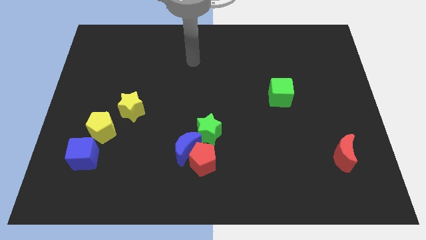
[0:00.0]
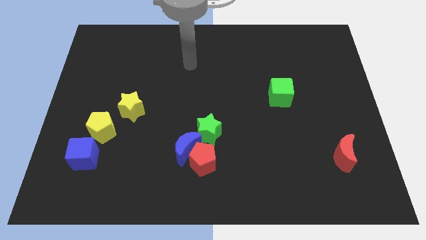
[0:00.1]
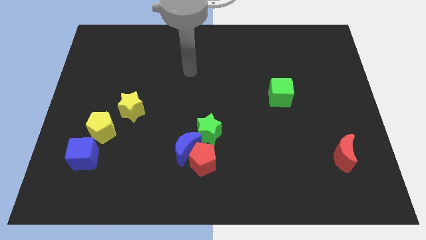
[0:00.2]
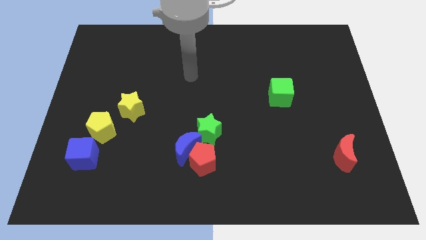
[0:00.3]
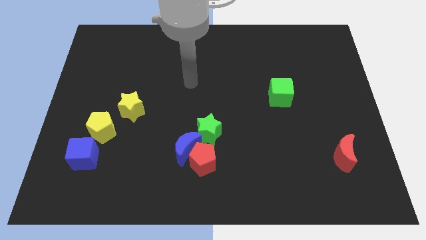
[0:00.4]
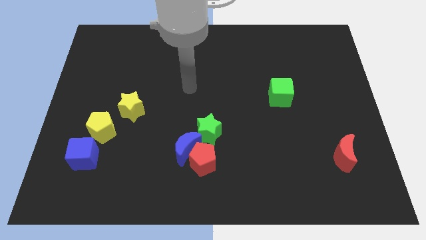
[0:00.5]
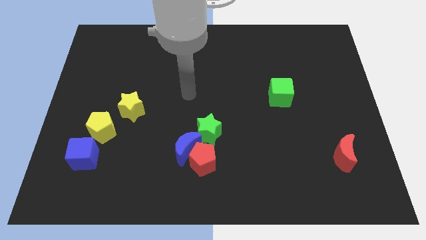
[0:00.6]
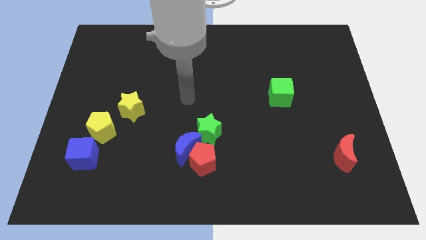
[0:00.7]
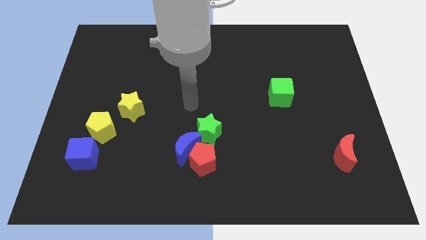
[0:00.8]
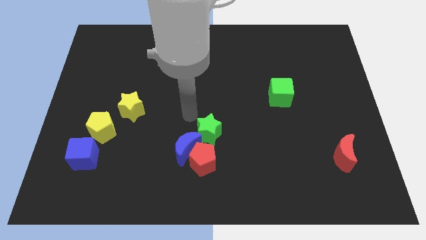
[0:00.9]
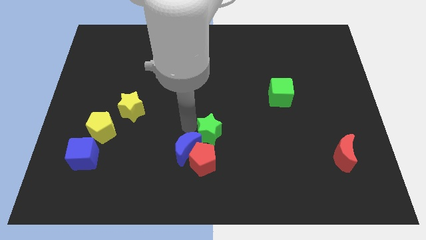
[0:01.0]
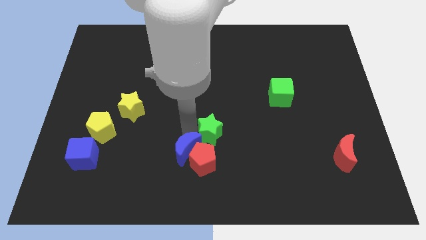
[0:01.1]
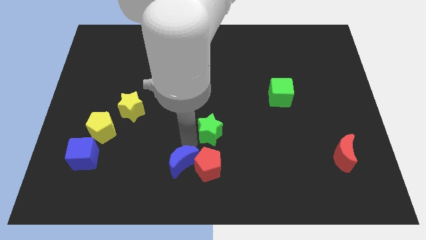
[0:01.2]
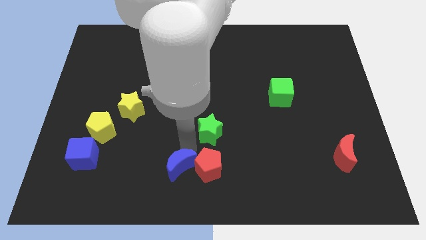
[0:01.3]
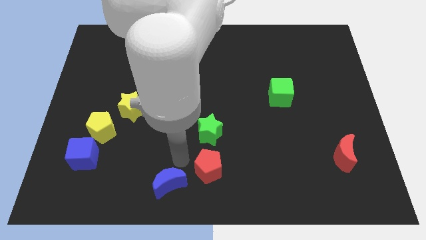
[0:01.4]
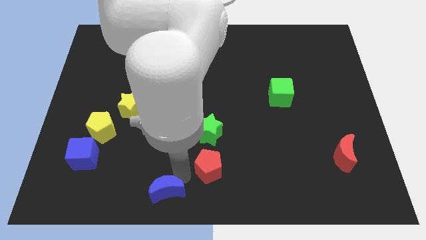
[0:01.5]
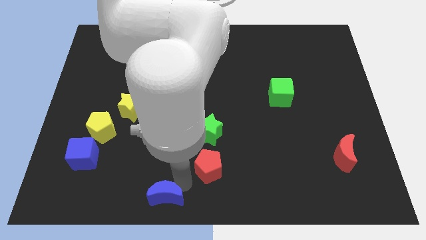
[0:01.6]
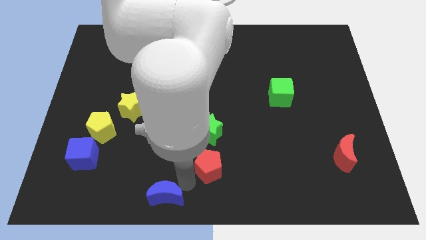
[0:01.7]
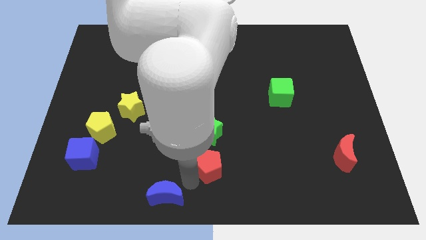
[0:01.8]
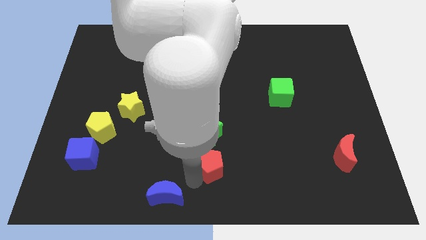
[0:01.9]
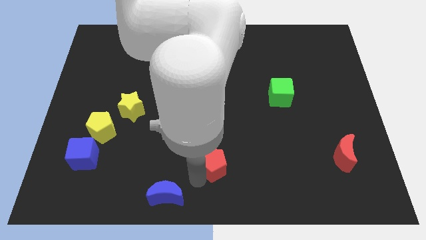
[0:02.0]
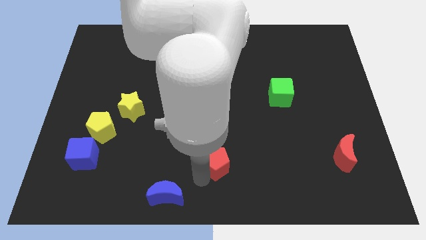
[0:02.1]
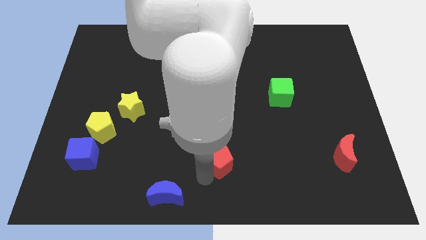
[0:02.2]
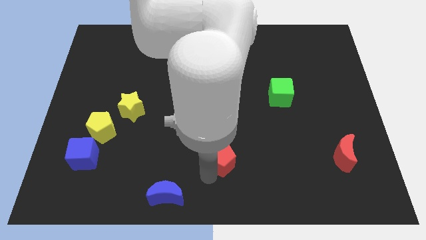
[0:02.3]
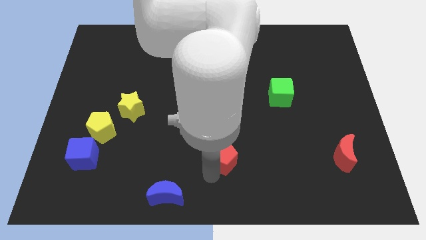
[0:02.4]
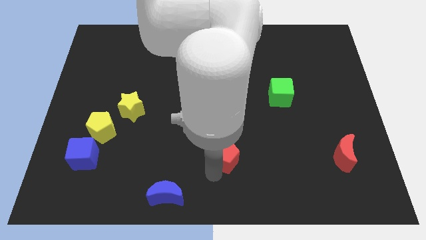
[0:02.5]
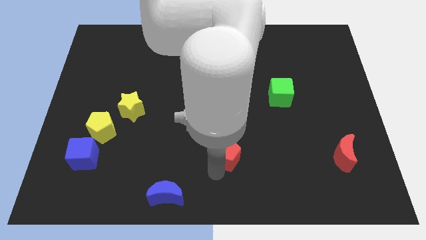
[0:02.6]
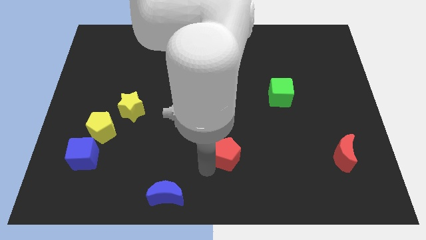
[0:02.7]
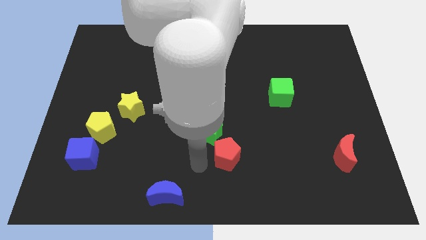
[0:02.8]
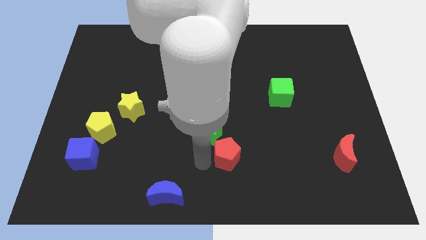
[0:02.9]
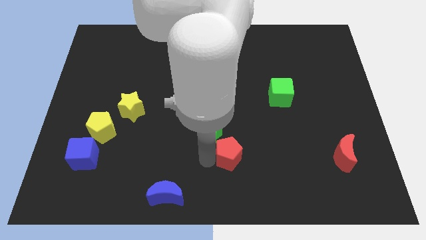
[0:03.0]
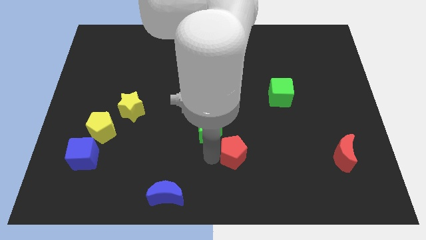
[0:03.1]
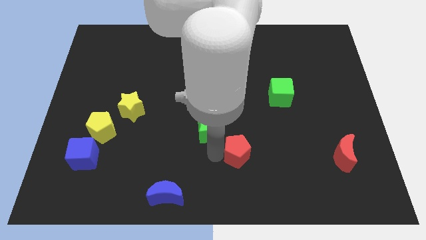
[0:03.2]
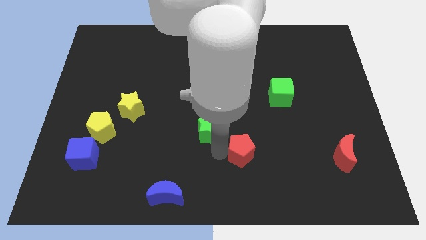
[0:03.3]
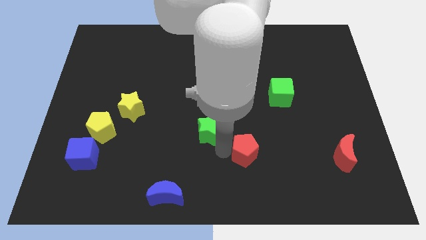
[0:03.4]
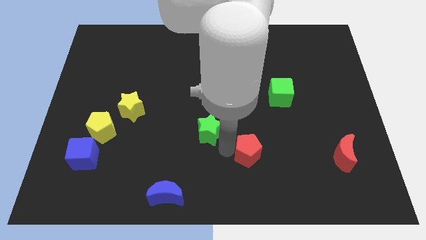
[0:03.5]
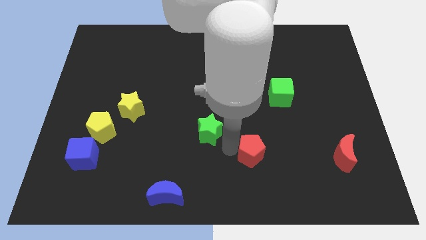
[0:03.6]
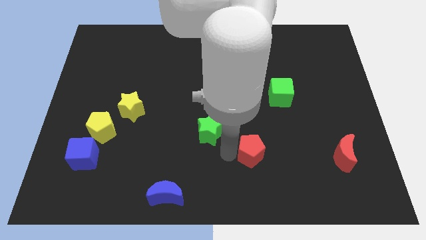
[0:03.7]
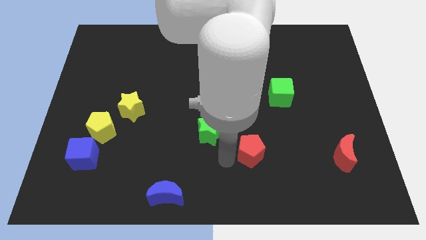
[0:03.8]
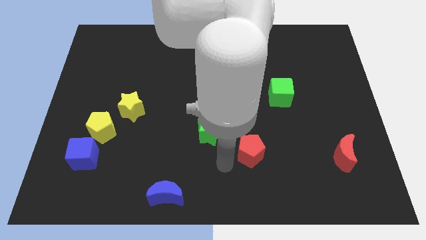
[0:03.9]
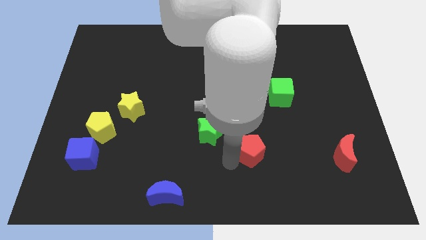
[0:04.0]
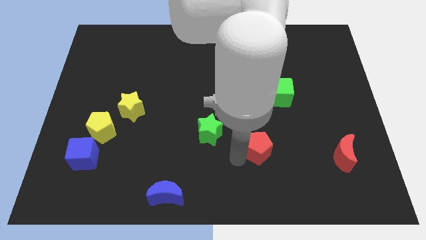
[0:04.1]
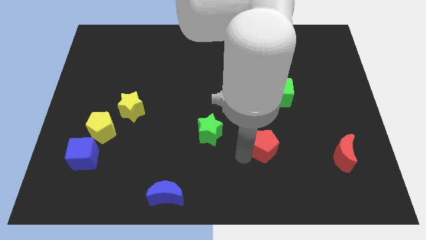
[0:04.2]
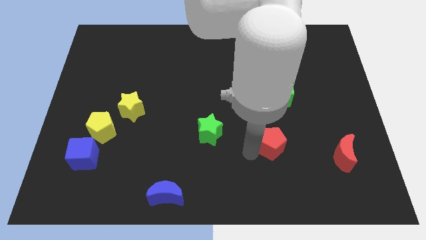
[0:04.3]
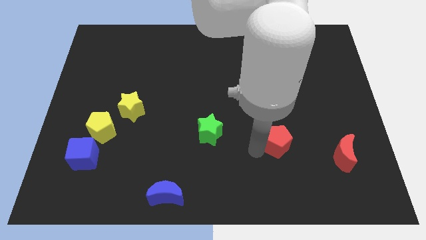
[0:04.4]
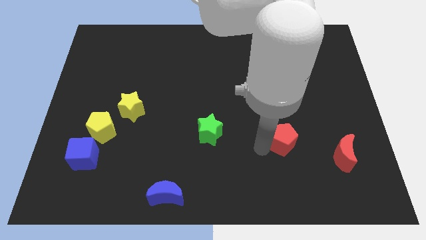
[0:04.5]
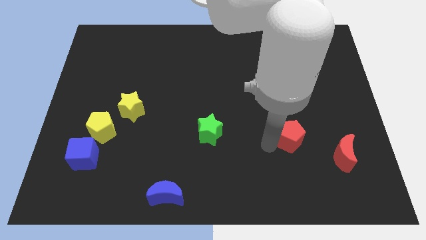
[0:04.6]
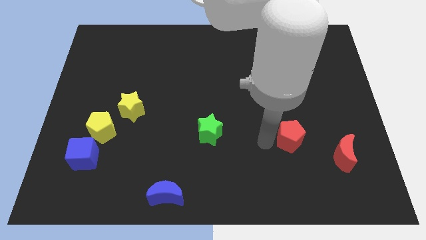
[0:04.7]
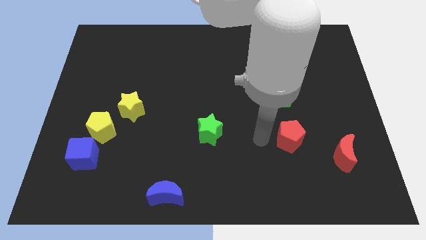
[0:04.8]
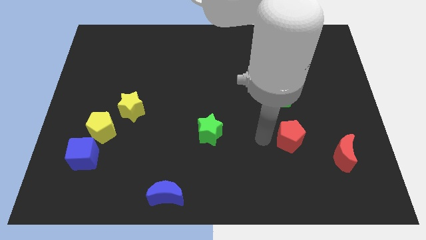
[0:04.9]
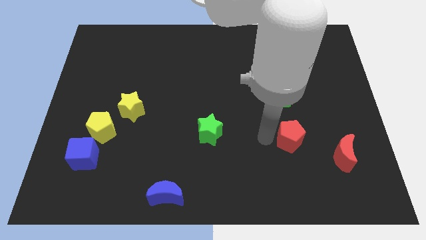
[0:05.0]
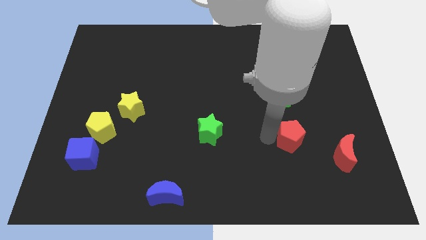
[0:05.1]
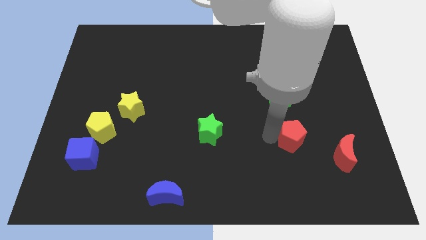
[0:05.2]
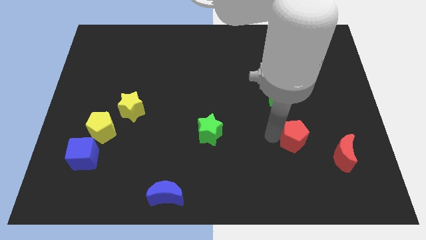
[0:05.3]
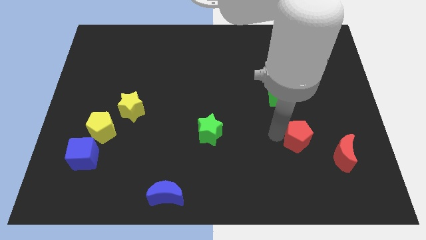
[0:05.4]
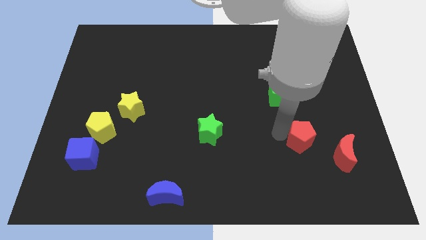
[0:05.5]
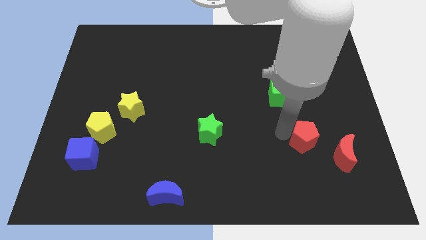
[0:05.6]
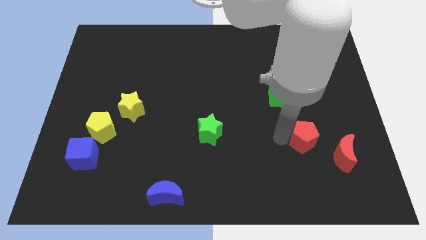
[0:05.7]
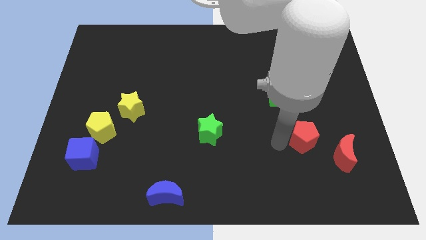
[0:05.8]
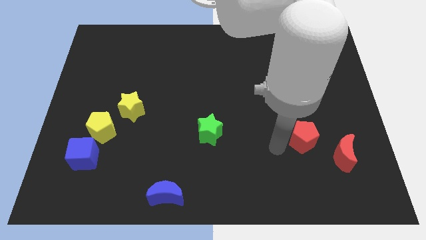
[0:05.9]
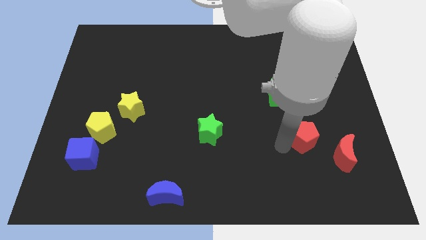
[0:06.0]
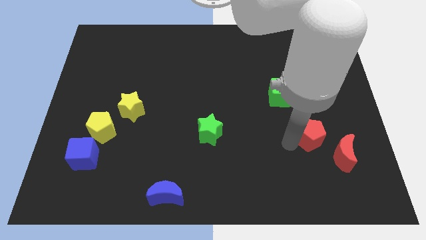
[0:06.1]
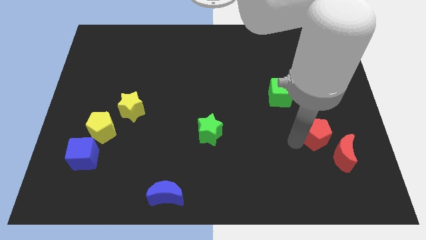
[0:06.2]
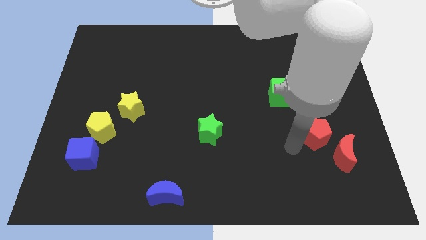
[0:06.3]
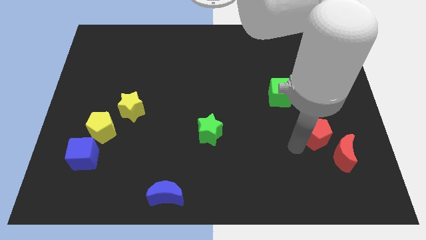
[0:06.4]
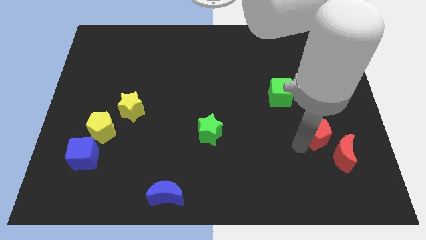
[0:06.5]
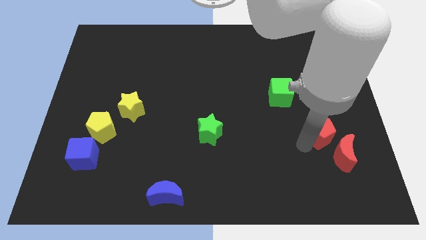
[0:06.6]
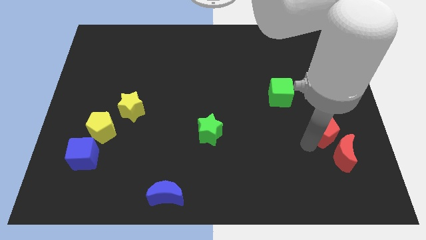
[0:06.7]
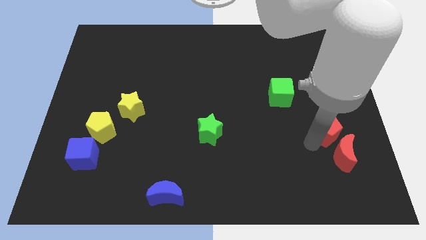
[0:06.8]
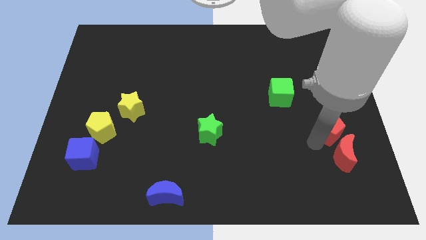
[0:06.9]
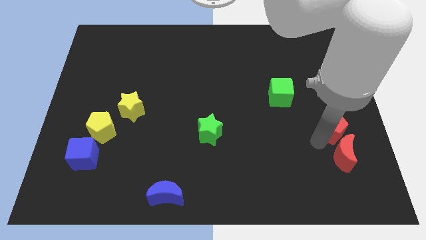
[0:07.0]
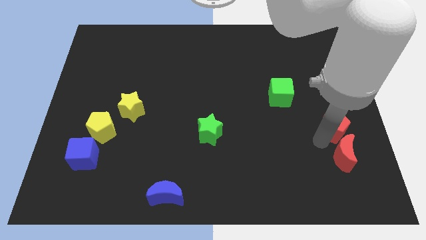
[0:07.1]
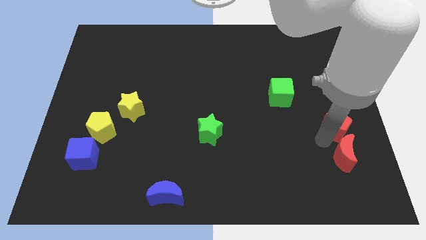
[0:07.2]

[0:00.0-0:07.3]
move the red pentagon to the center right

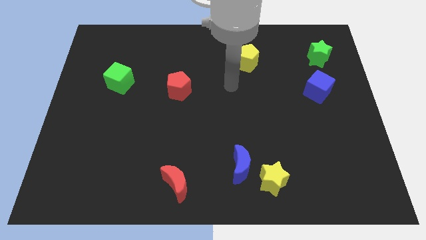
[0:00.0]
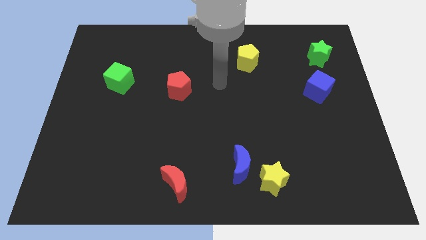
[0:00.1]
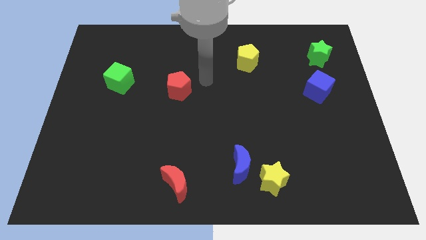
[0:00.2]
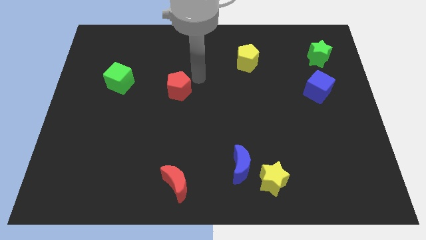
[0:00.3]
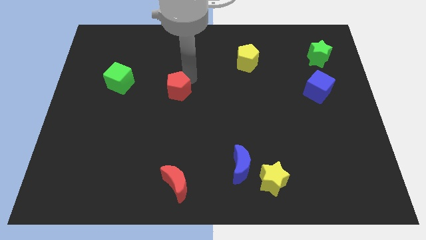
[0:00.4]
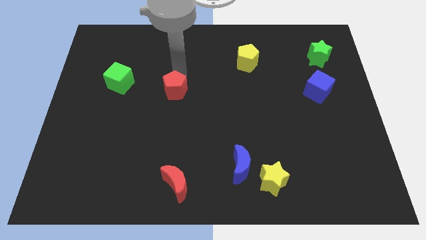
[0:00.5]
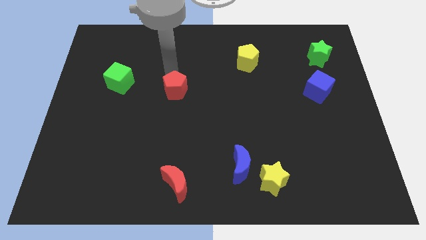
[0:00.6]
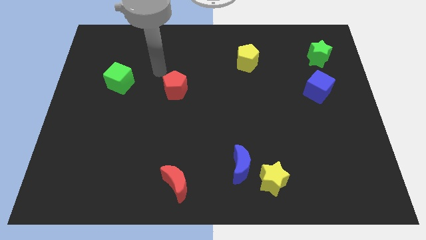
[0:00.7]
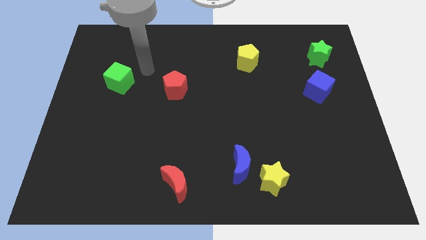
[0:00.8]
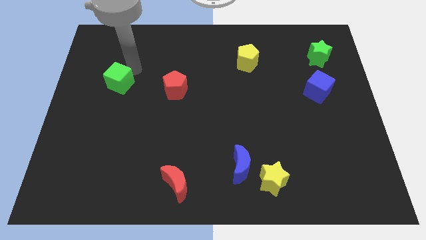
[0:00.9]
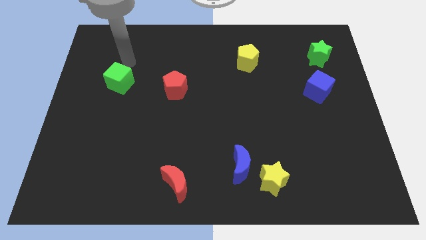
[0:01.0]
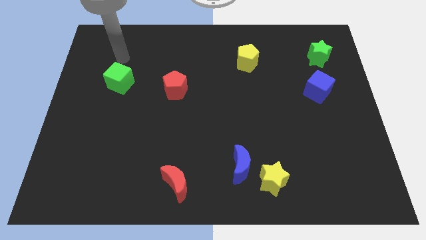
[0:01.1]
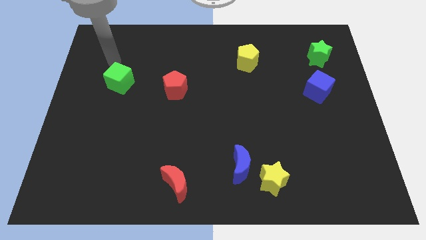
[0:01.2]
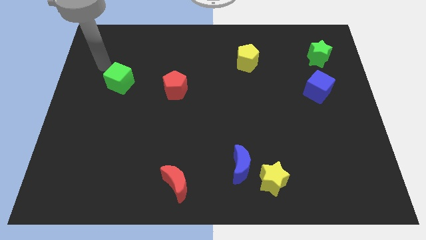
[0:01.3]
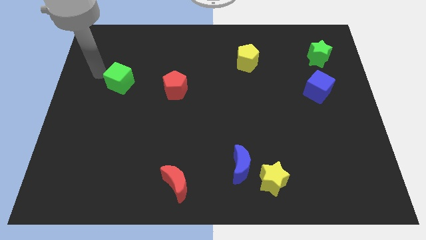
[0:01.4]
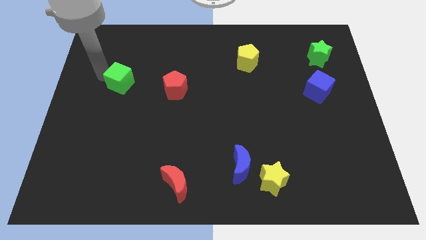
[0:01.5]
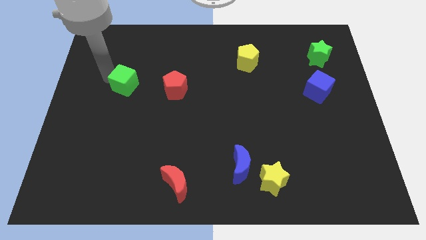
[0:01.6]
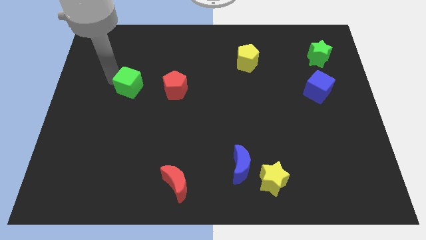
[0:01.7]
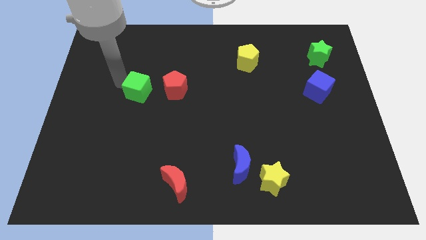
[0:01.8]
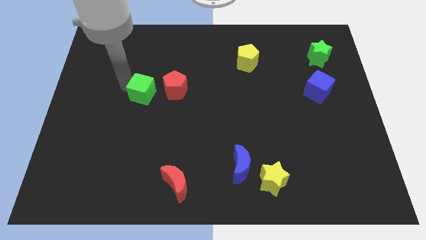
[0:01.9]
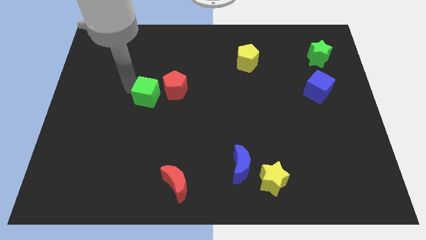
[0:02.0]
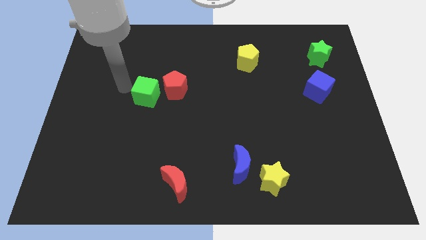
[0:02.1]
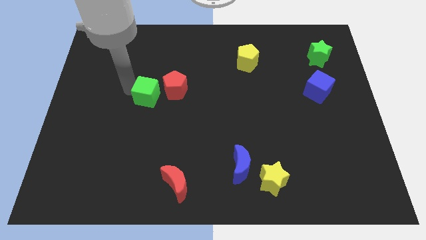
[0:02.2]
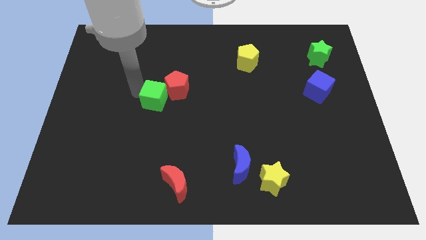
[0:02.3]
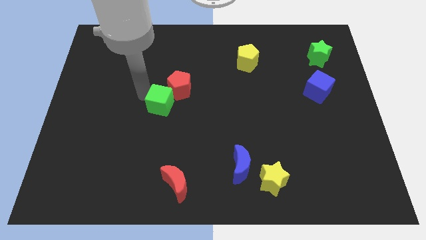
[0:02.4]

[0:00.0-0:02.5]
push the green cube to the center of the board
